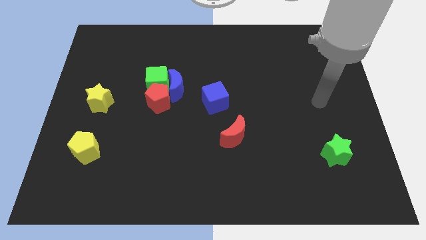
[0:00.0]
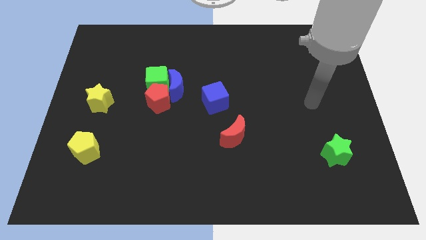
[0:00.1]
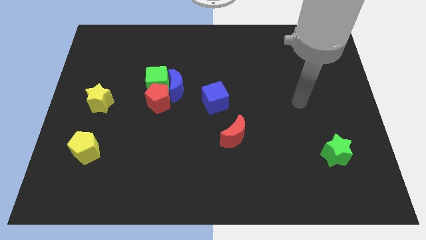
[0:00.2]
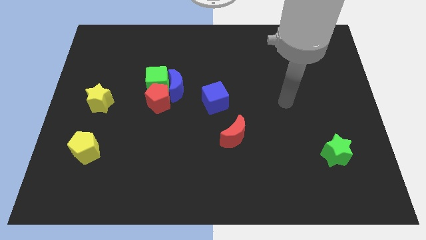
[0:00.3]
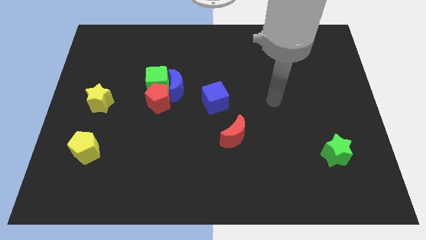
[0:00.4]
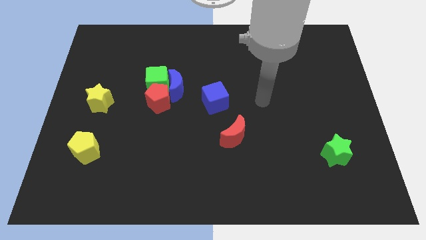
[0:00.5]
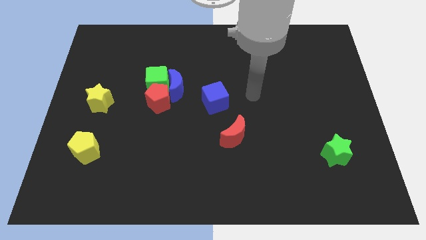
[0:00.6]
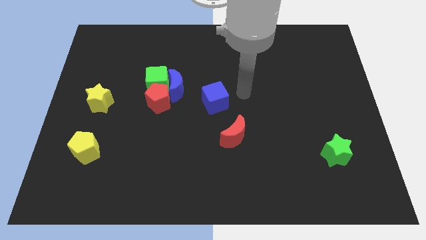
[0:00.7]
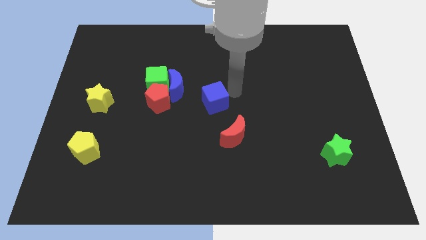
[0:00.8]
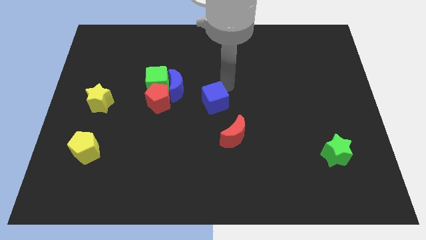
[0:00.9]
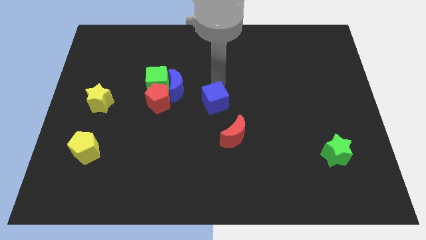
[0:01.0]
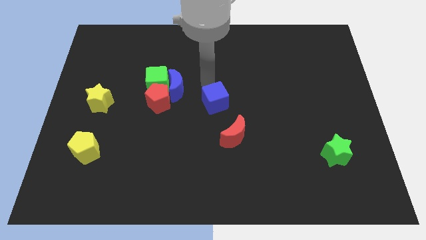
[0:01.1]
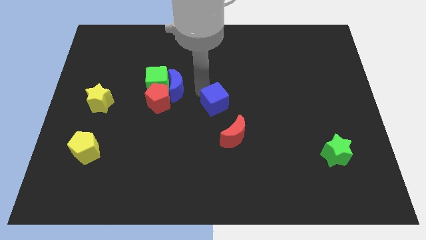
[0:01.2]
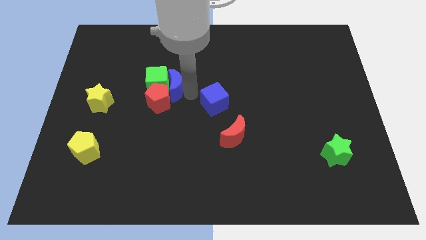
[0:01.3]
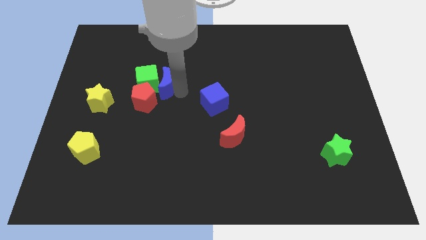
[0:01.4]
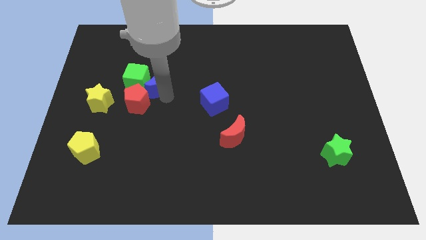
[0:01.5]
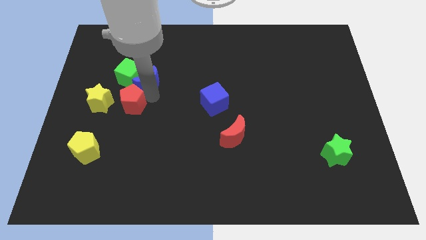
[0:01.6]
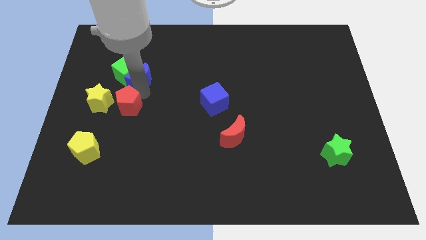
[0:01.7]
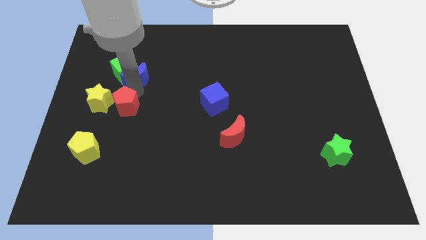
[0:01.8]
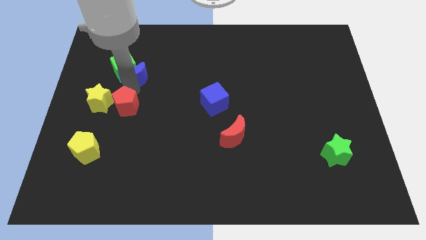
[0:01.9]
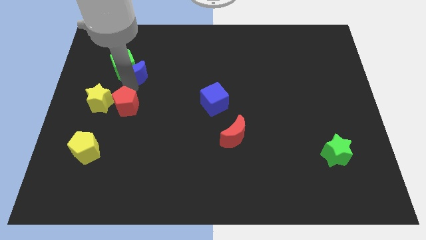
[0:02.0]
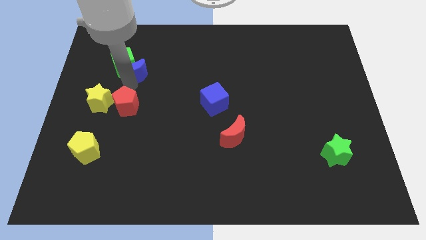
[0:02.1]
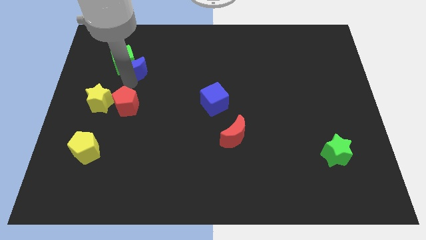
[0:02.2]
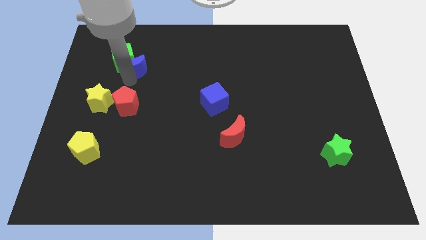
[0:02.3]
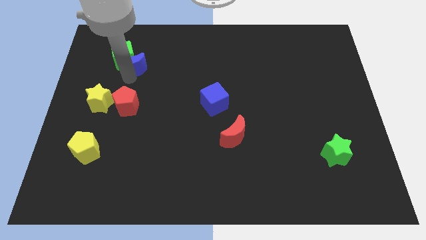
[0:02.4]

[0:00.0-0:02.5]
move the green cube away from the blue moon and red pentagon

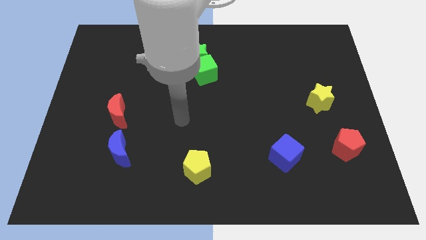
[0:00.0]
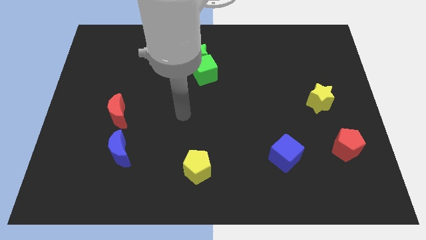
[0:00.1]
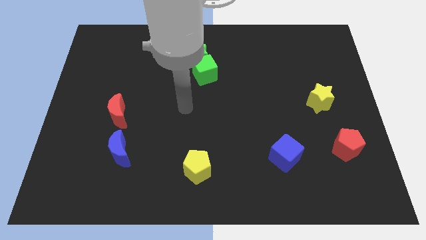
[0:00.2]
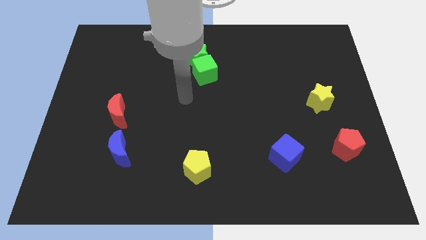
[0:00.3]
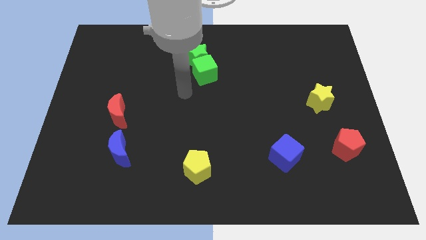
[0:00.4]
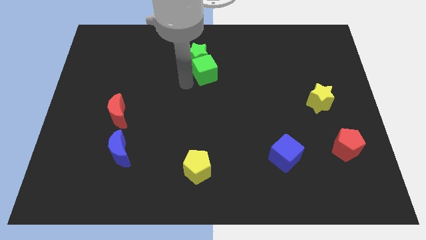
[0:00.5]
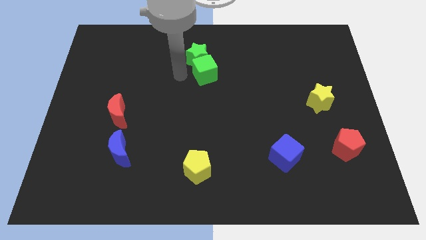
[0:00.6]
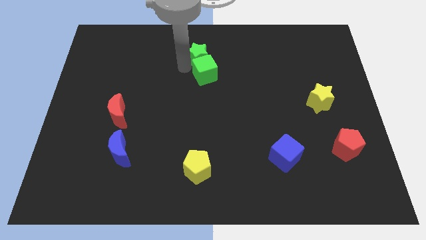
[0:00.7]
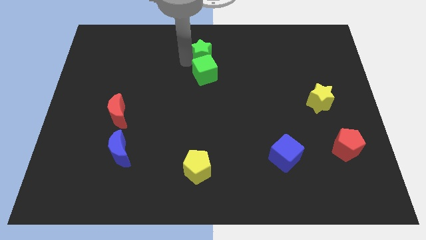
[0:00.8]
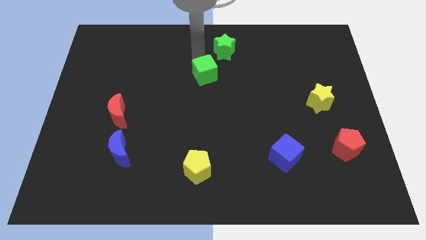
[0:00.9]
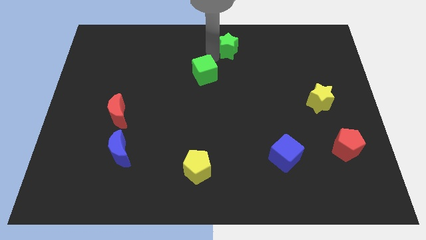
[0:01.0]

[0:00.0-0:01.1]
pull the green cube apart from the green star

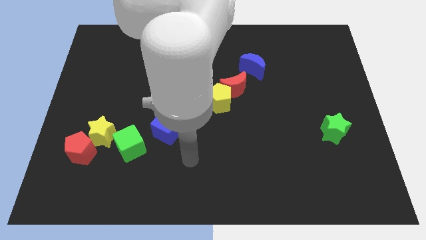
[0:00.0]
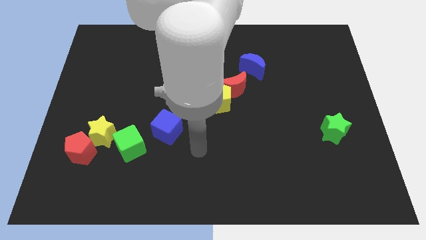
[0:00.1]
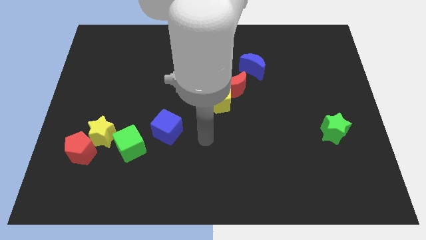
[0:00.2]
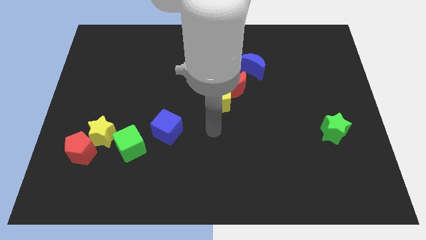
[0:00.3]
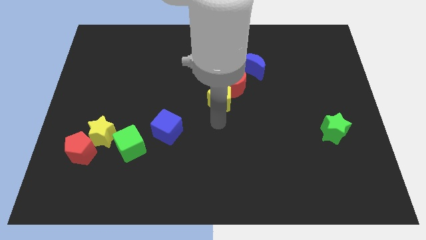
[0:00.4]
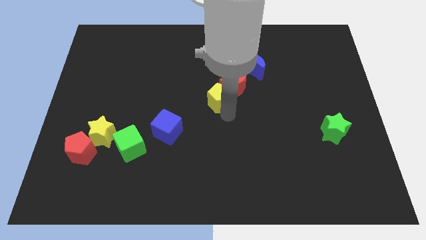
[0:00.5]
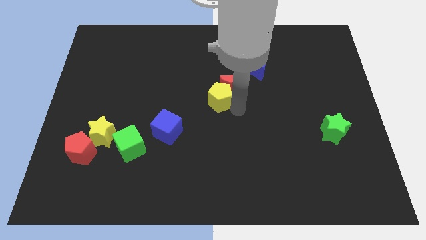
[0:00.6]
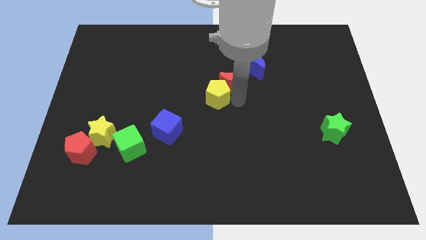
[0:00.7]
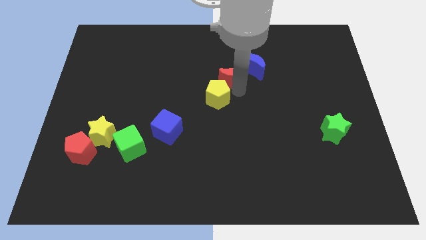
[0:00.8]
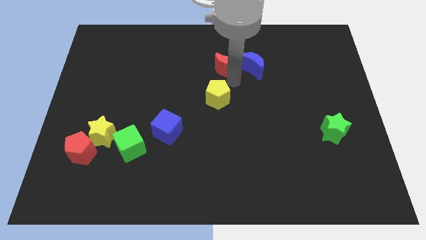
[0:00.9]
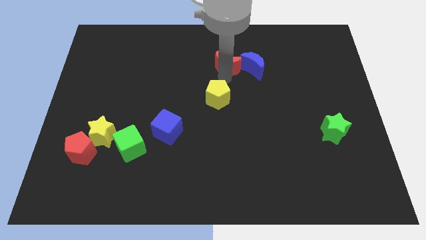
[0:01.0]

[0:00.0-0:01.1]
separate the yellow pentagon from the red moon

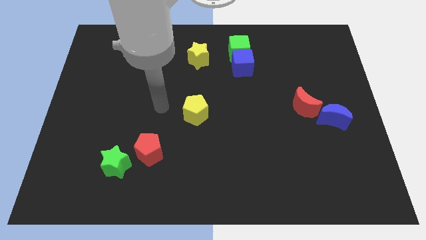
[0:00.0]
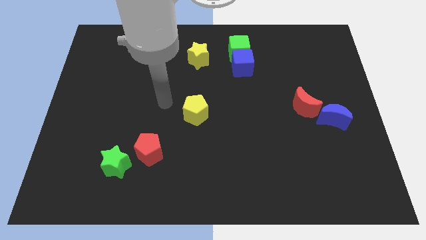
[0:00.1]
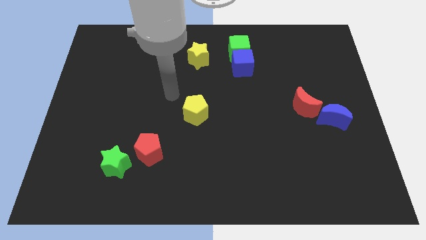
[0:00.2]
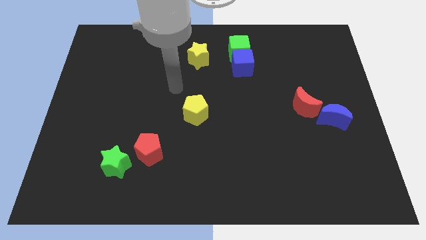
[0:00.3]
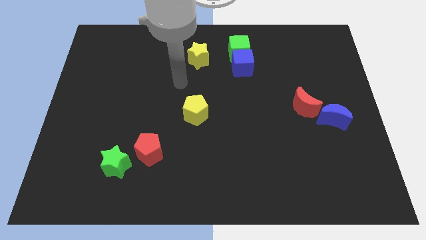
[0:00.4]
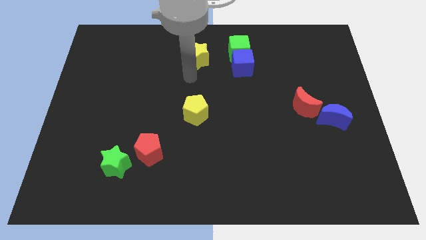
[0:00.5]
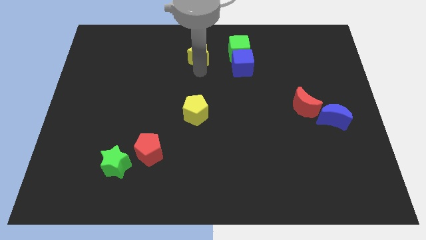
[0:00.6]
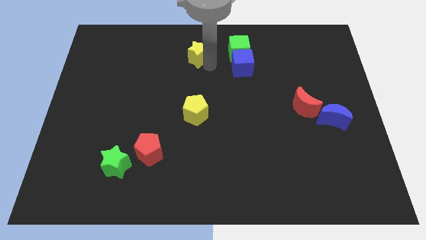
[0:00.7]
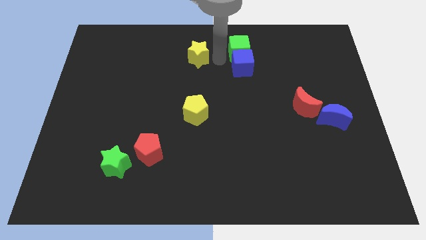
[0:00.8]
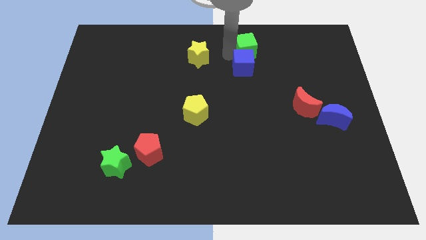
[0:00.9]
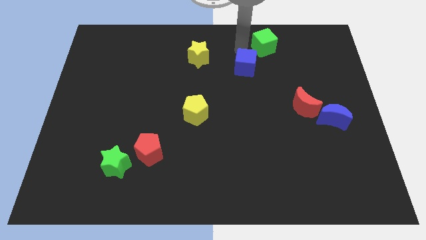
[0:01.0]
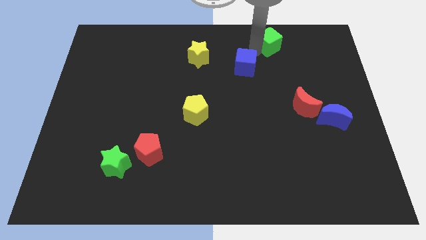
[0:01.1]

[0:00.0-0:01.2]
pull the blue cube apart from the green cube

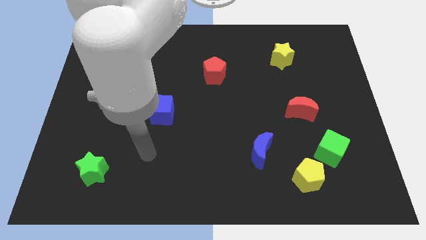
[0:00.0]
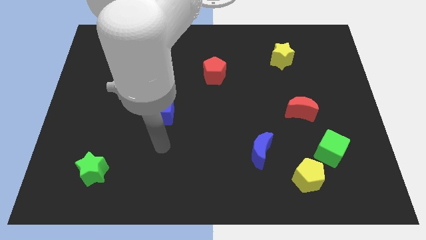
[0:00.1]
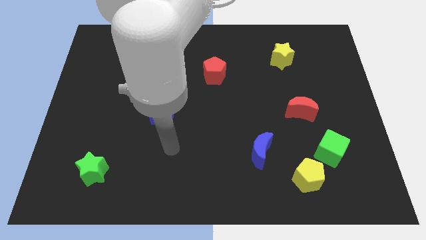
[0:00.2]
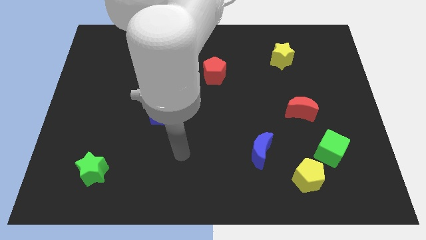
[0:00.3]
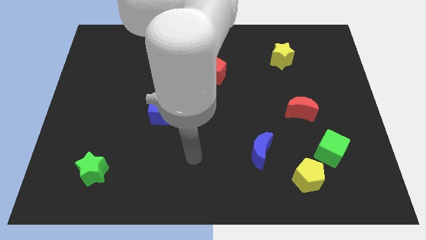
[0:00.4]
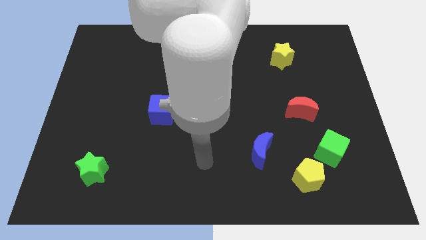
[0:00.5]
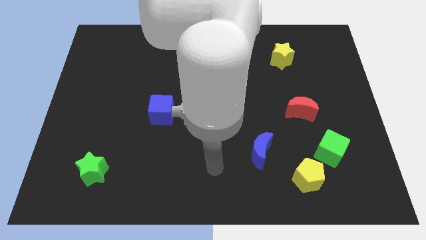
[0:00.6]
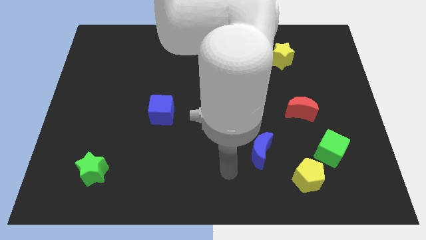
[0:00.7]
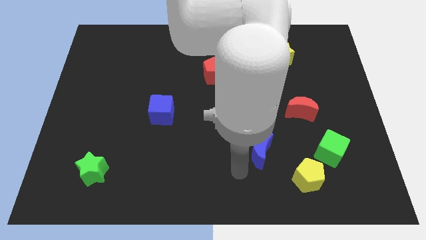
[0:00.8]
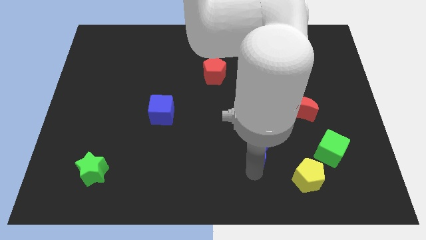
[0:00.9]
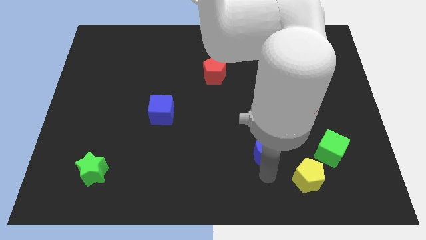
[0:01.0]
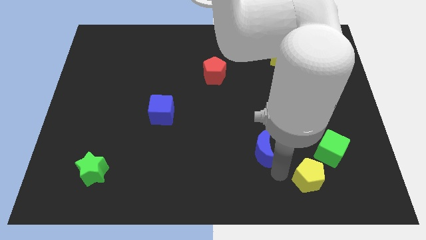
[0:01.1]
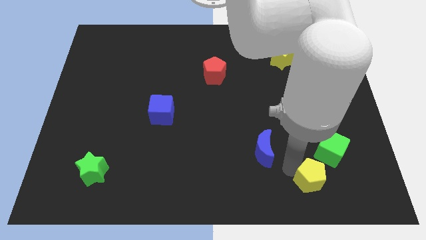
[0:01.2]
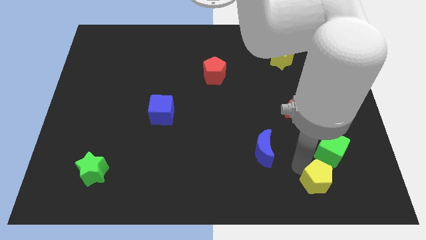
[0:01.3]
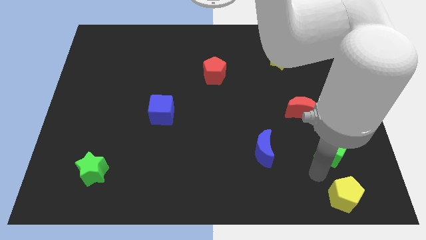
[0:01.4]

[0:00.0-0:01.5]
pull the green cube apart from the yellow pentagon

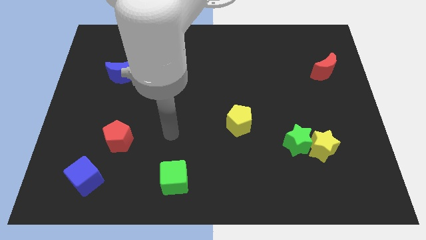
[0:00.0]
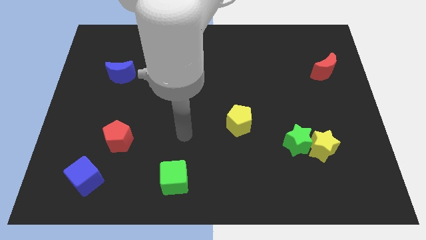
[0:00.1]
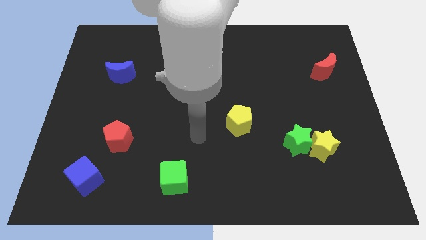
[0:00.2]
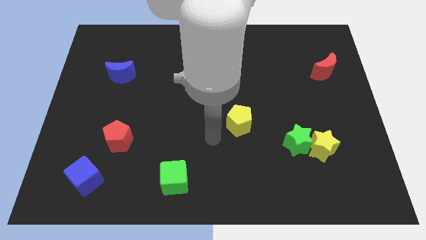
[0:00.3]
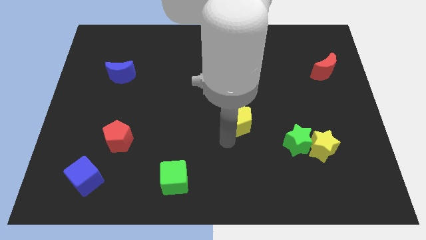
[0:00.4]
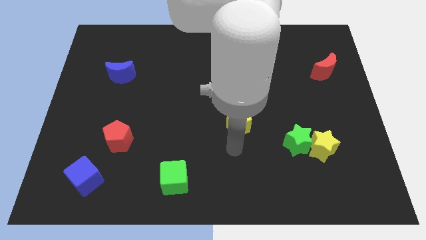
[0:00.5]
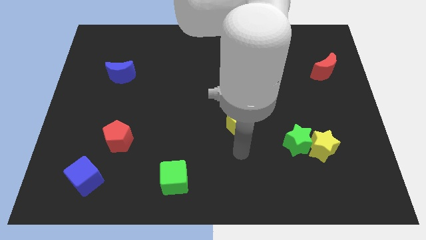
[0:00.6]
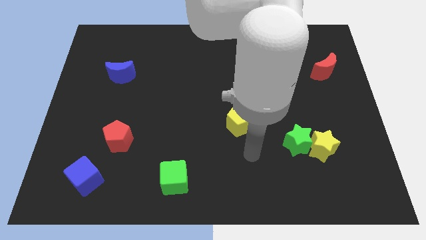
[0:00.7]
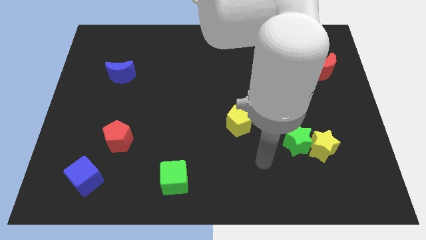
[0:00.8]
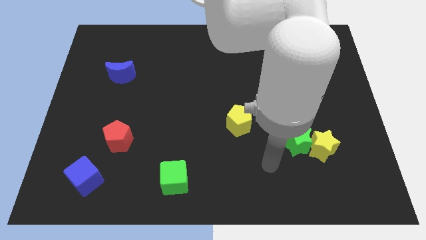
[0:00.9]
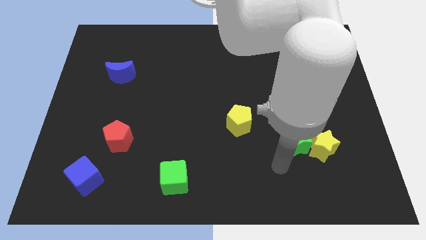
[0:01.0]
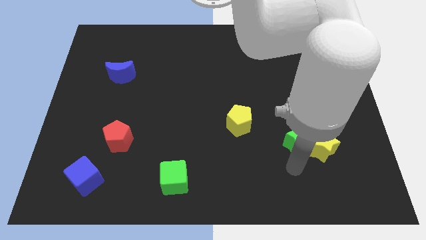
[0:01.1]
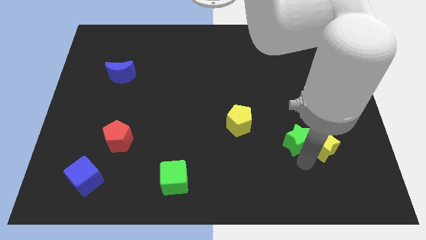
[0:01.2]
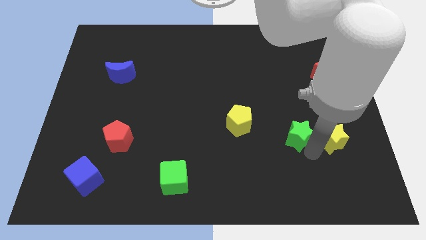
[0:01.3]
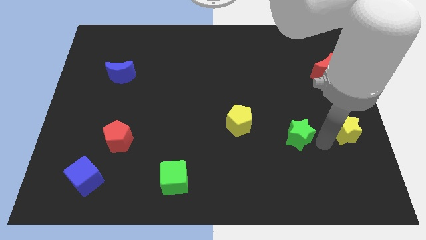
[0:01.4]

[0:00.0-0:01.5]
separate the green star from the yellow star

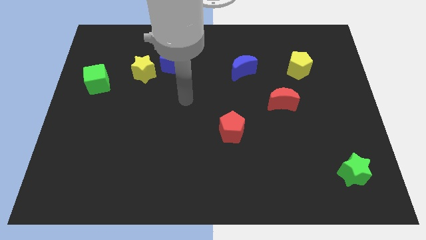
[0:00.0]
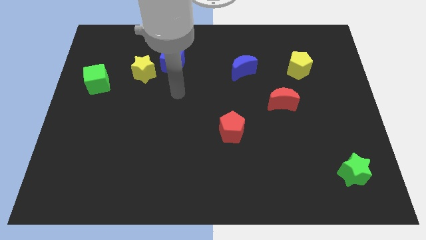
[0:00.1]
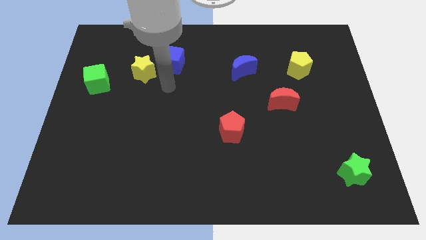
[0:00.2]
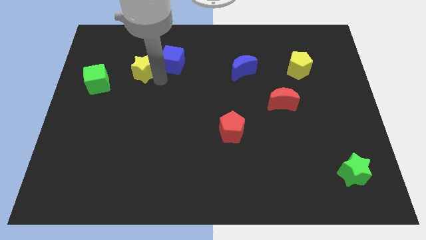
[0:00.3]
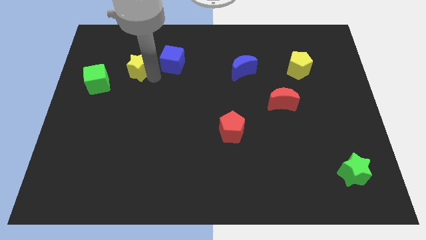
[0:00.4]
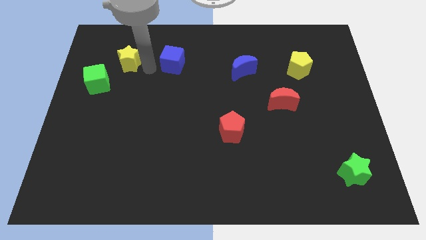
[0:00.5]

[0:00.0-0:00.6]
move the blue cube away from the yellow star
